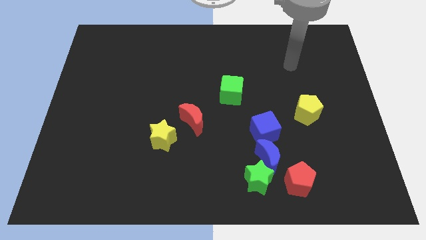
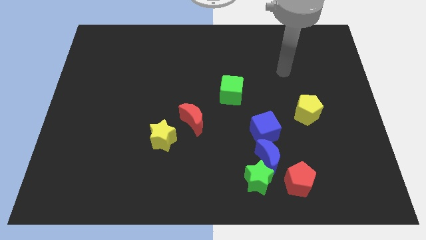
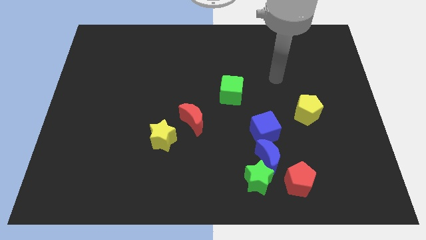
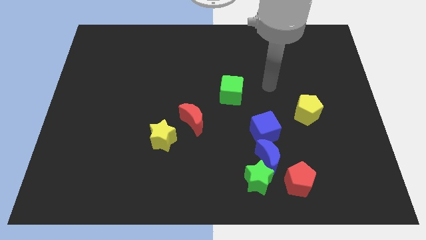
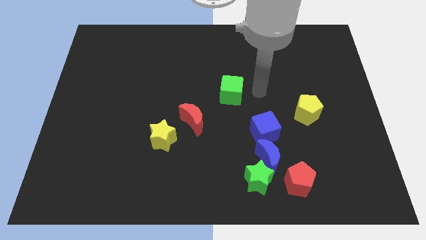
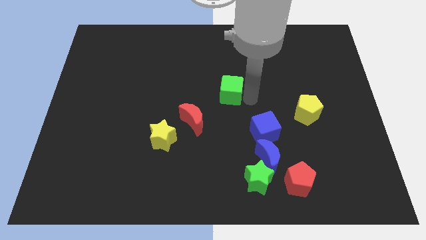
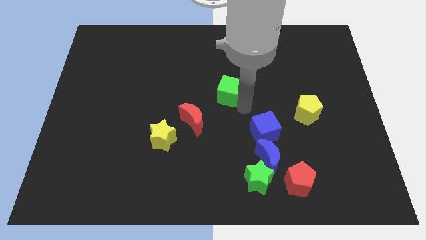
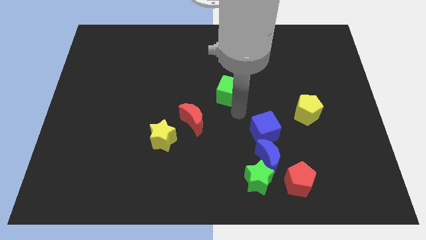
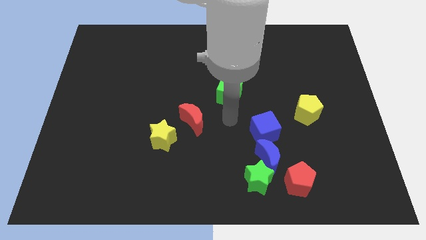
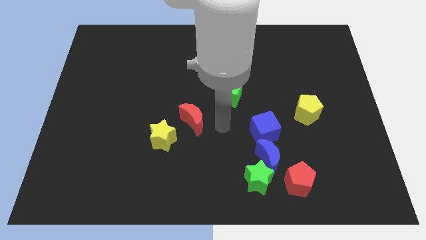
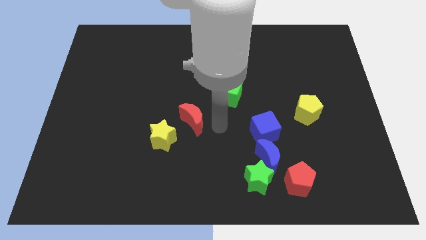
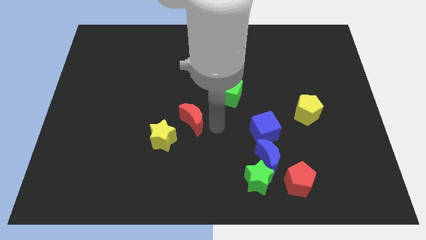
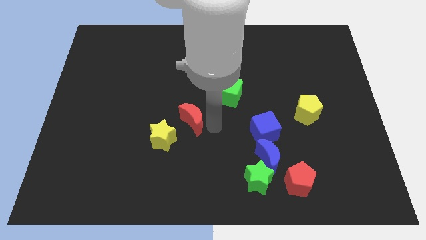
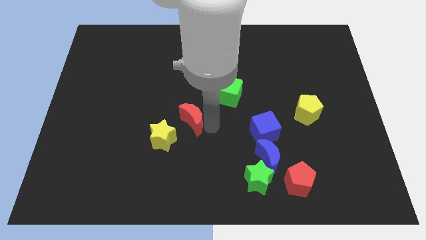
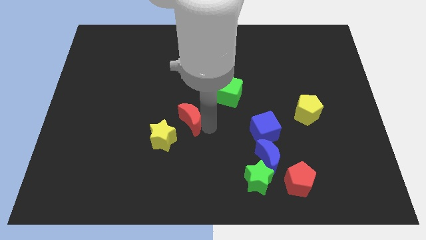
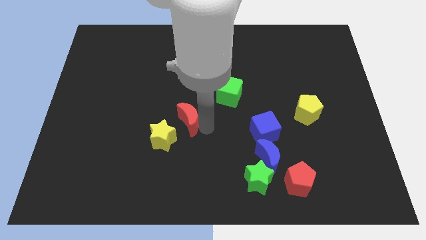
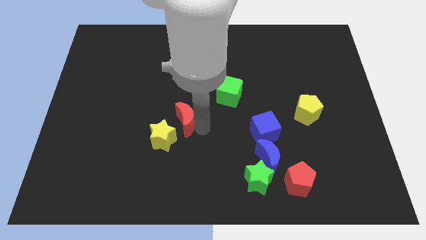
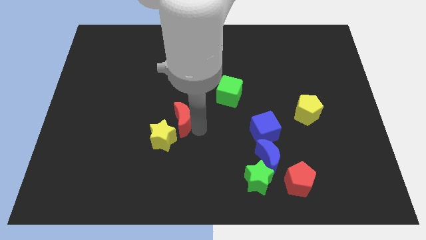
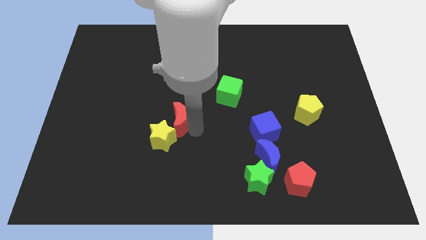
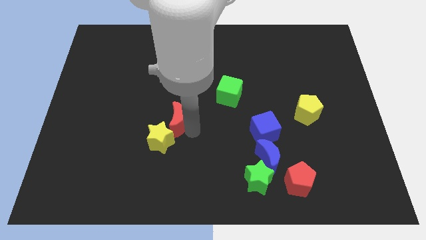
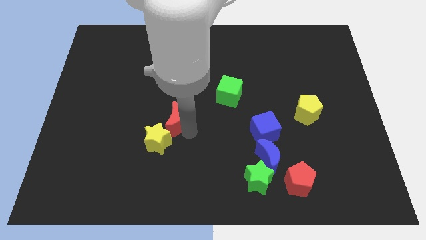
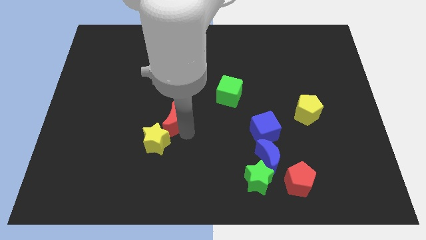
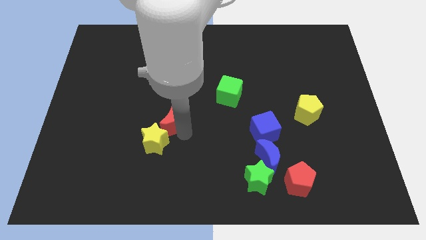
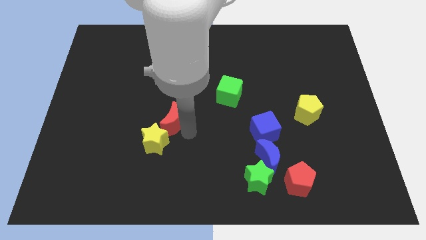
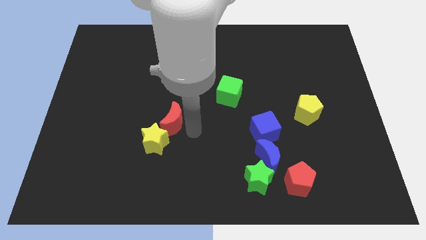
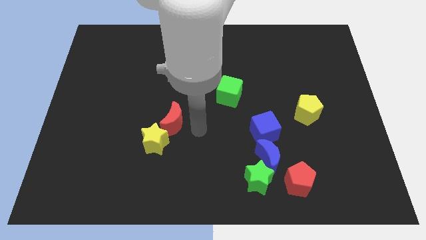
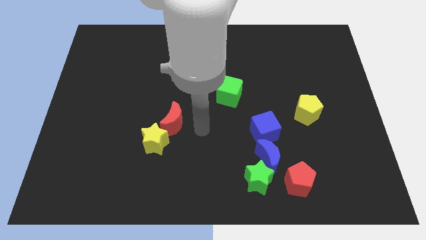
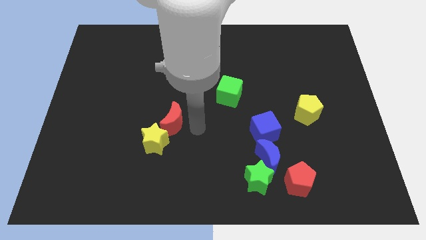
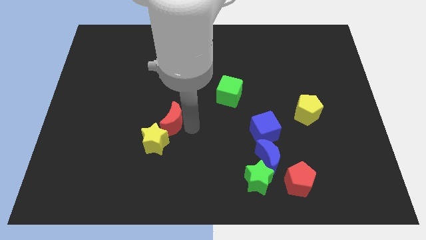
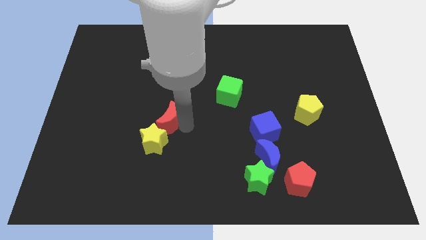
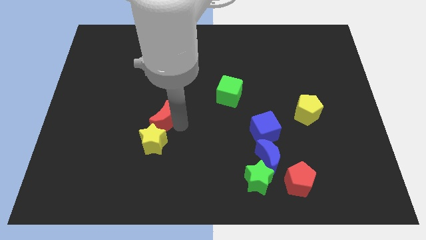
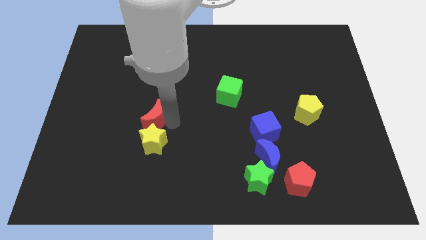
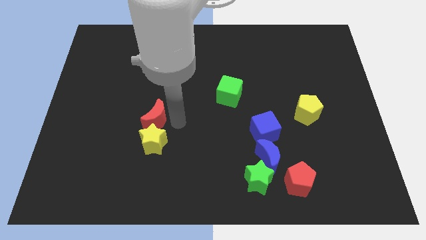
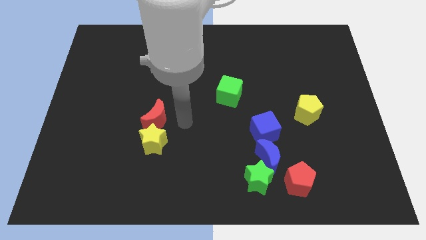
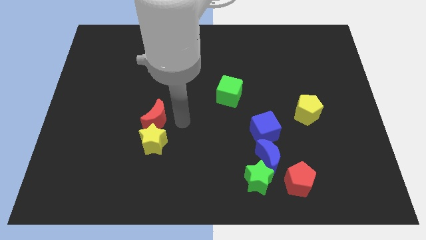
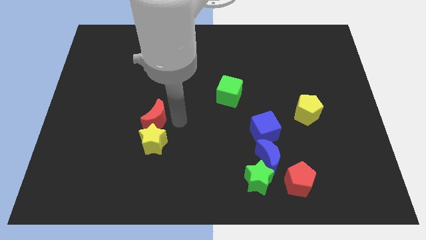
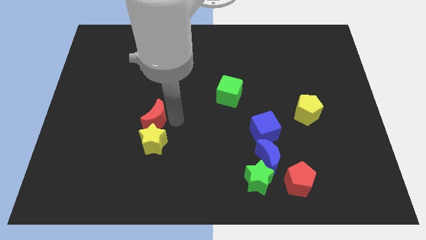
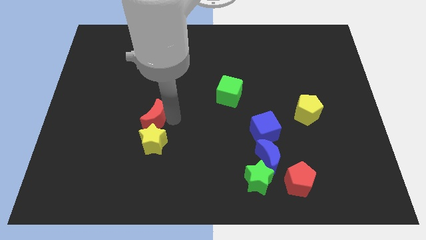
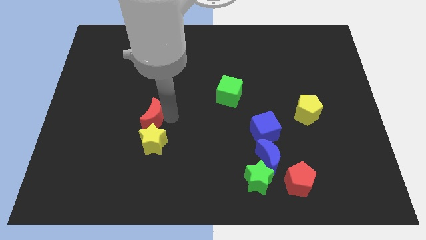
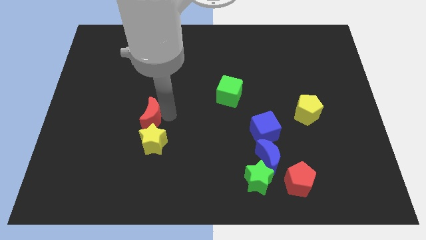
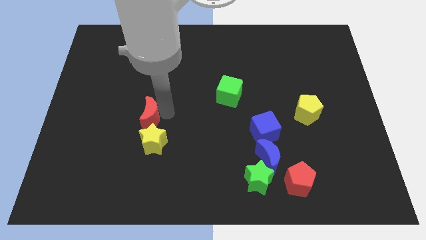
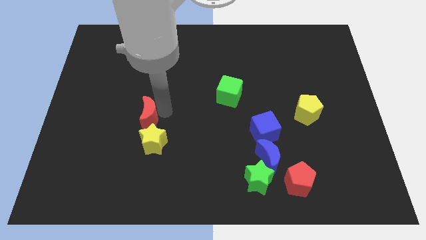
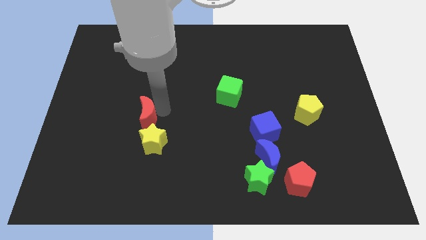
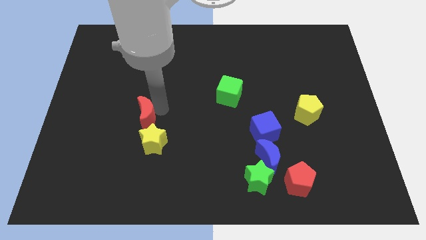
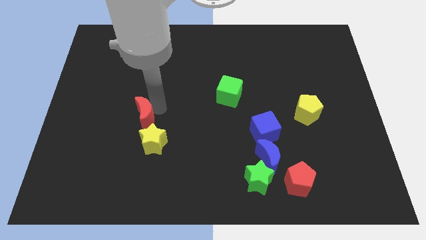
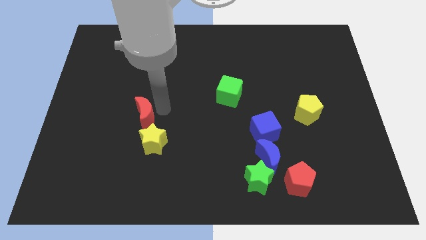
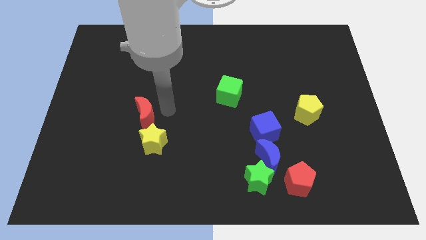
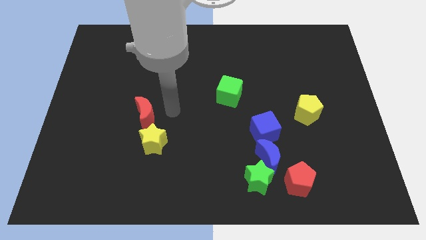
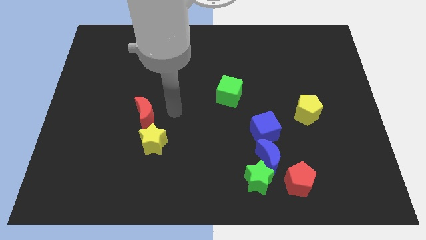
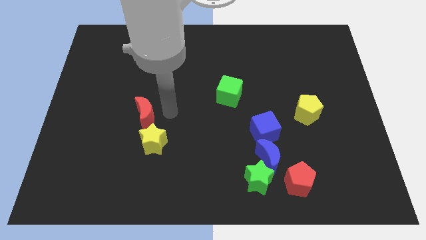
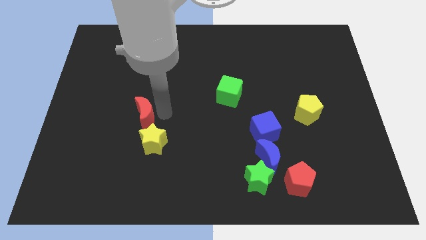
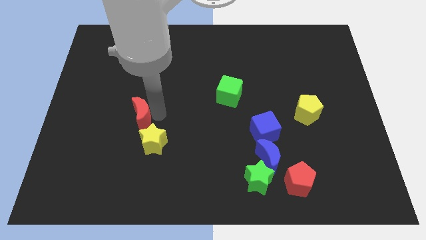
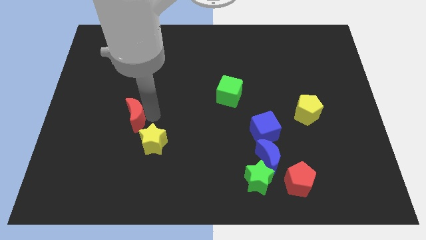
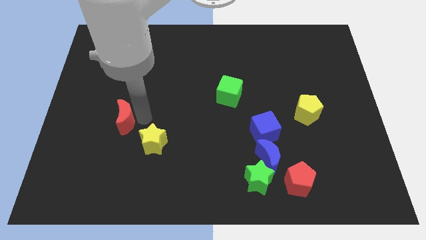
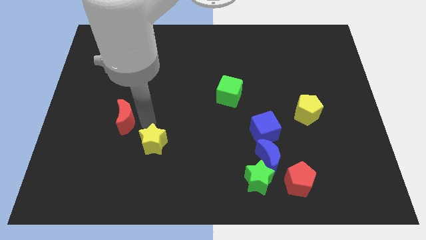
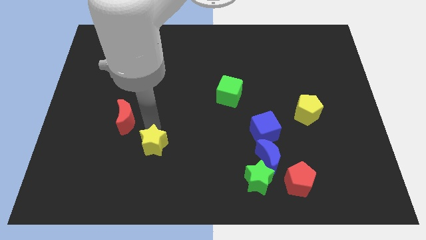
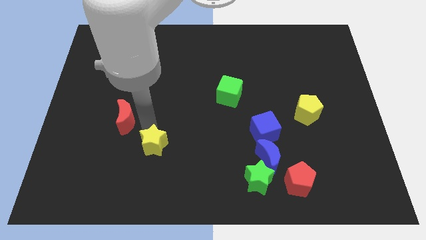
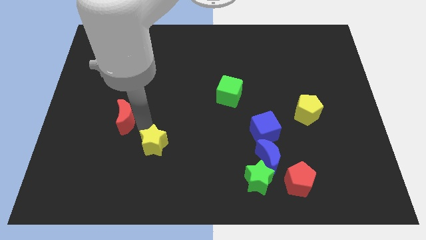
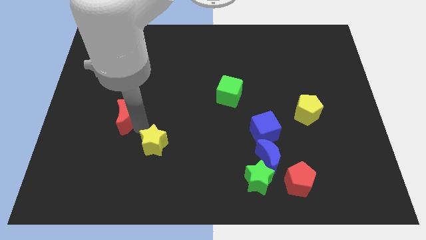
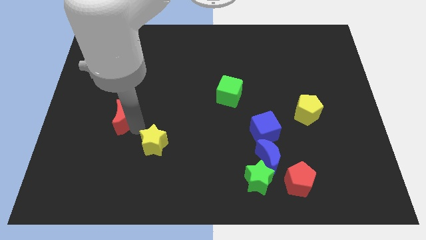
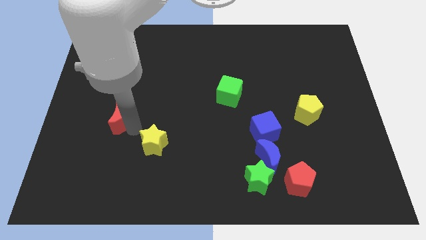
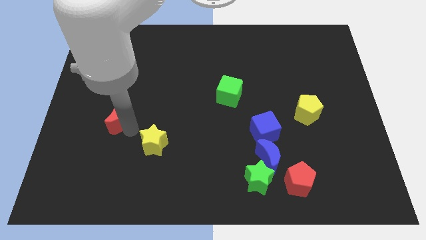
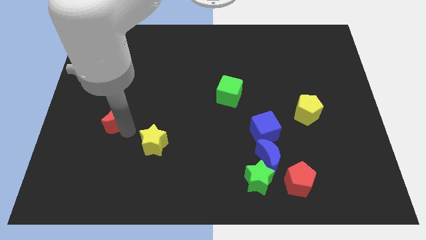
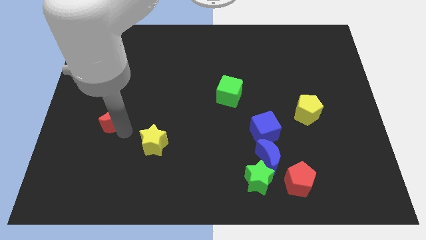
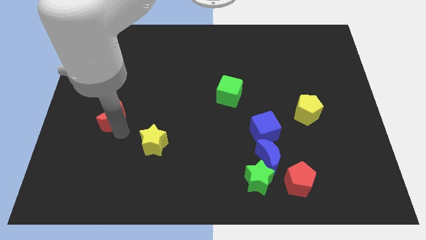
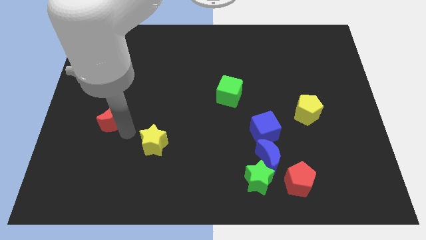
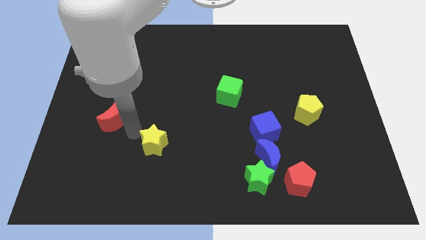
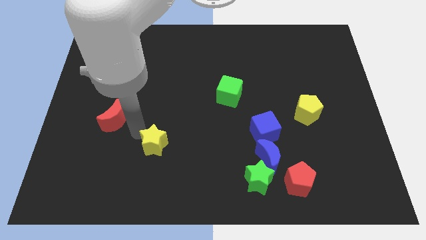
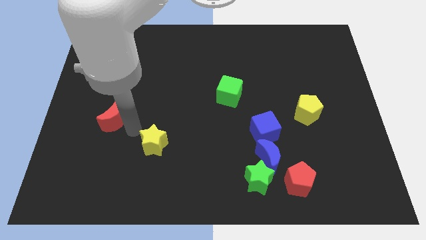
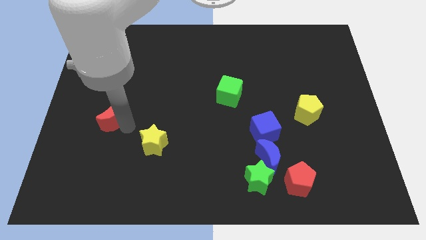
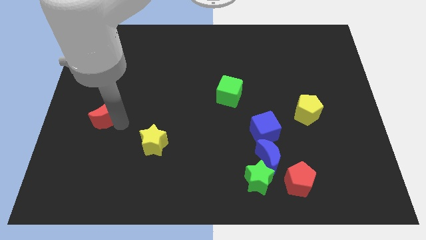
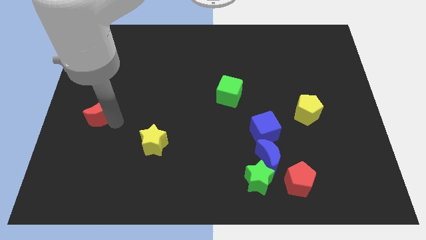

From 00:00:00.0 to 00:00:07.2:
put the red moon to the left side of the board
